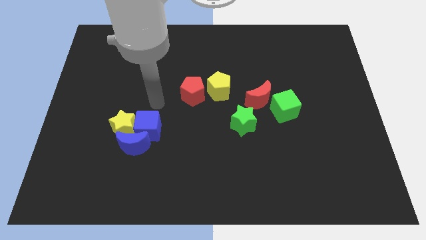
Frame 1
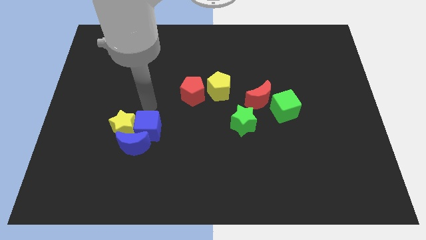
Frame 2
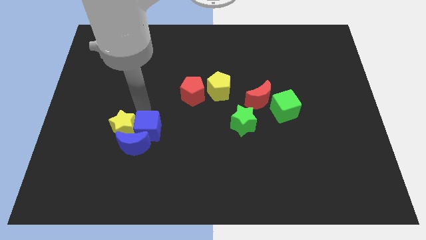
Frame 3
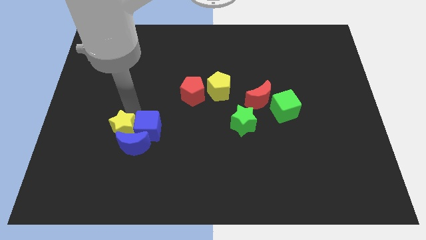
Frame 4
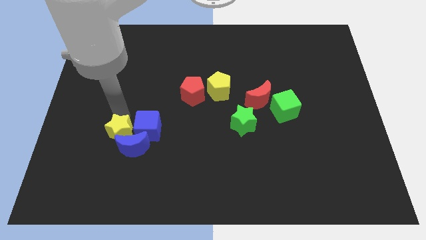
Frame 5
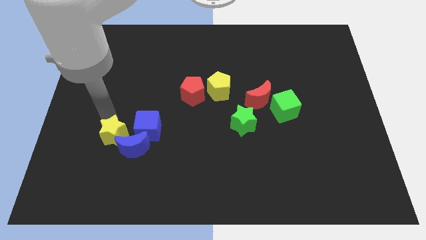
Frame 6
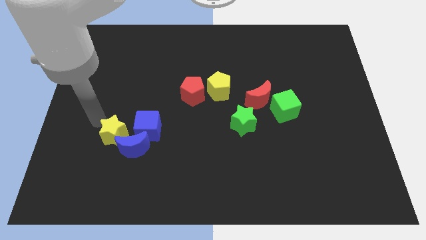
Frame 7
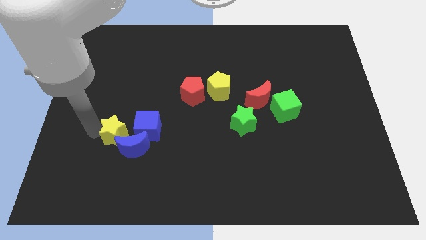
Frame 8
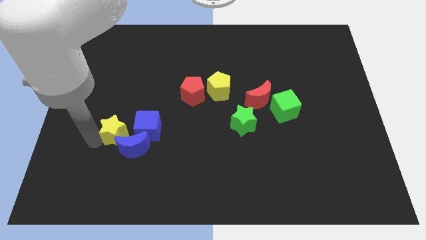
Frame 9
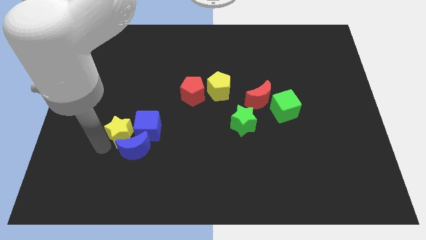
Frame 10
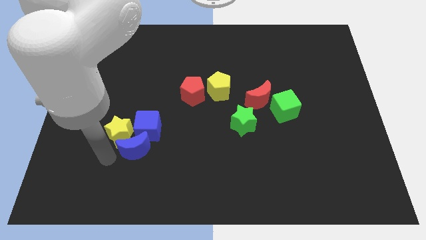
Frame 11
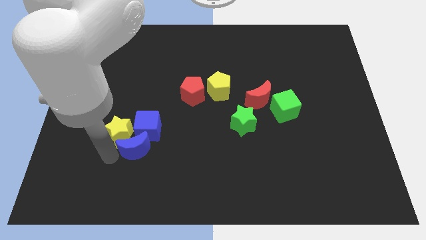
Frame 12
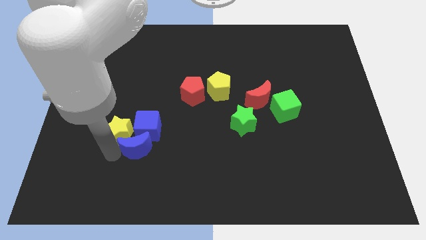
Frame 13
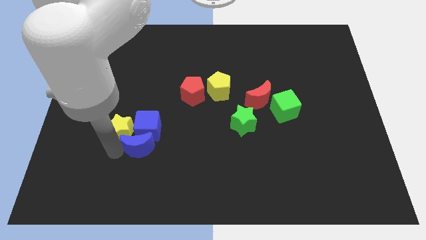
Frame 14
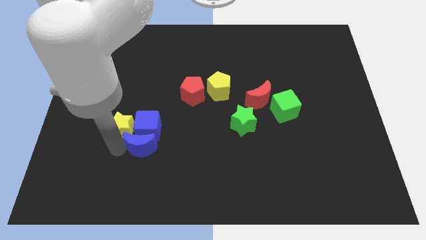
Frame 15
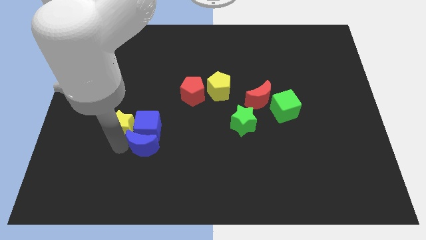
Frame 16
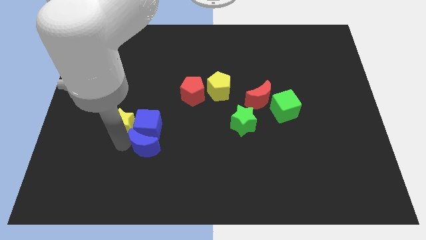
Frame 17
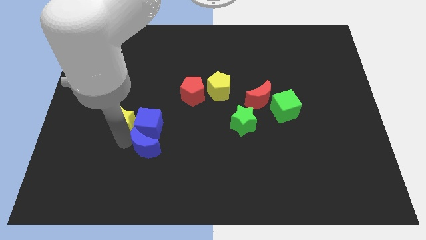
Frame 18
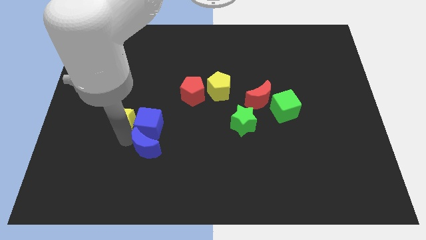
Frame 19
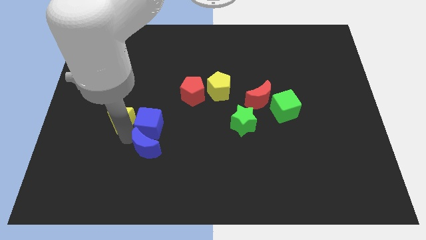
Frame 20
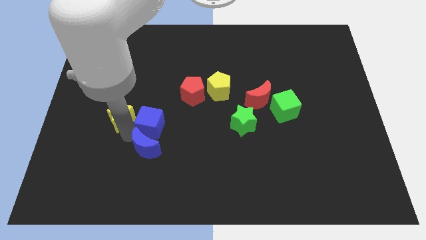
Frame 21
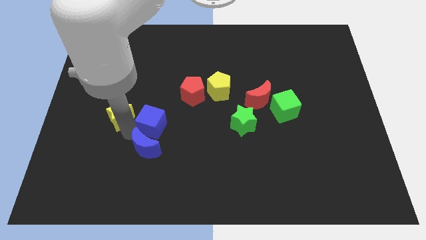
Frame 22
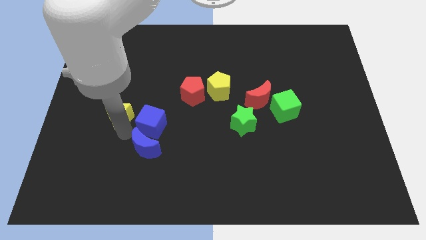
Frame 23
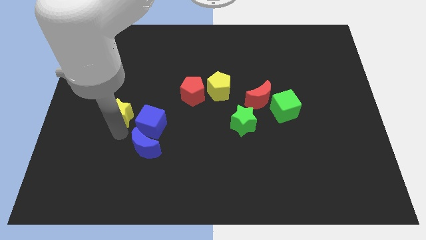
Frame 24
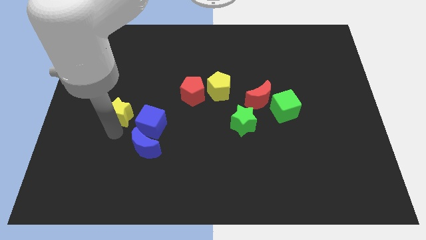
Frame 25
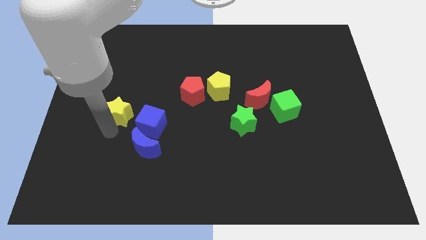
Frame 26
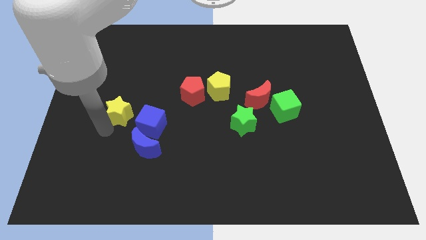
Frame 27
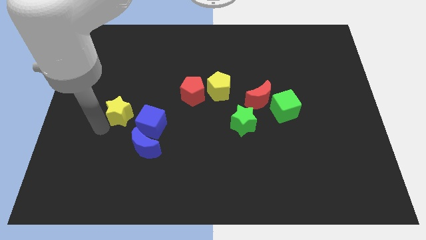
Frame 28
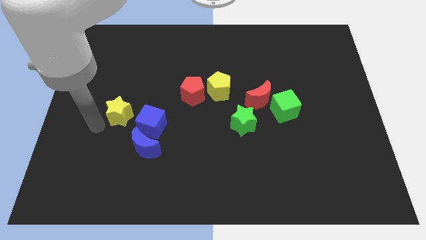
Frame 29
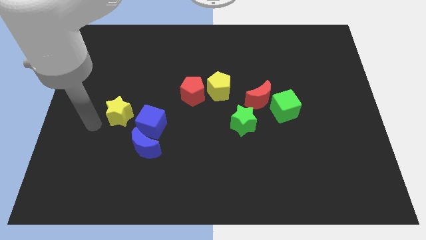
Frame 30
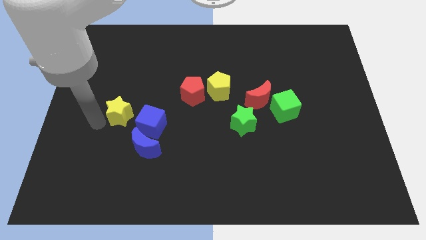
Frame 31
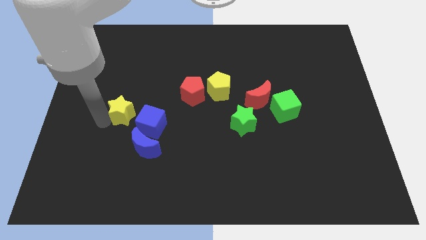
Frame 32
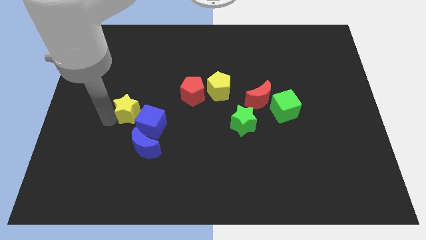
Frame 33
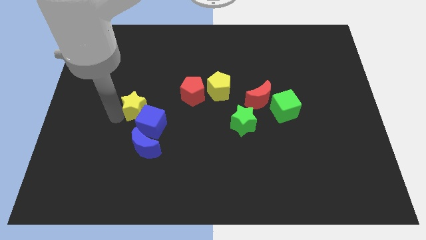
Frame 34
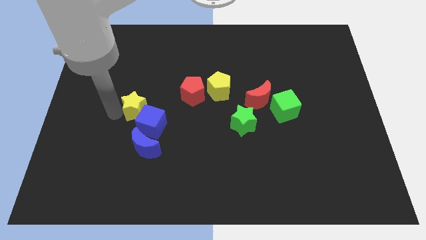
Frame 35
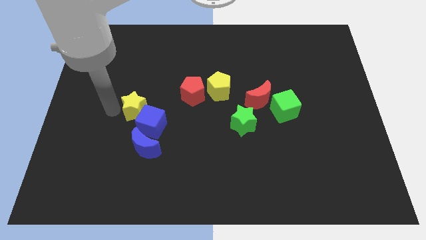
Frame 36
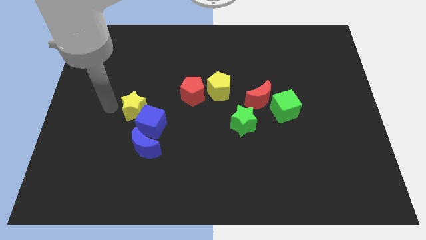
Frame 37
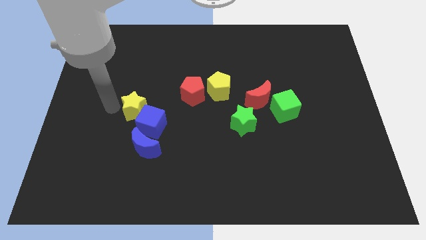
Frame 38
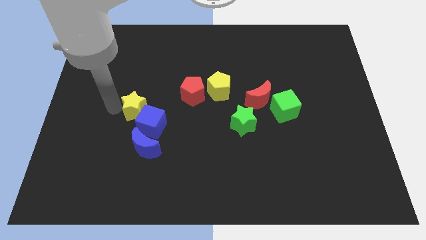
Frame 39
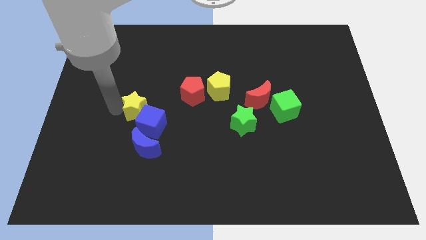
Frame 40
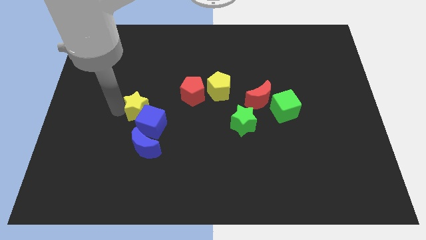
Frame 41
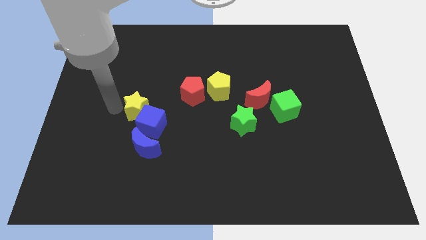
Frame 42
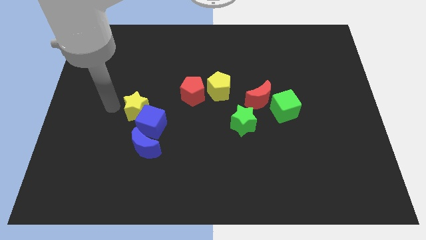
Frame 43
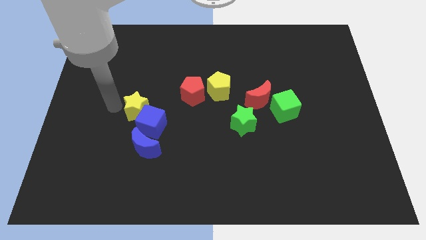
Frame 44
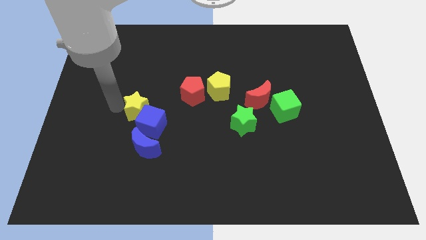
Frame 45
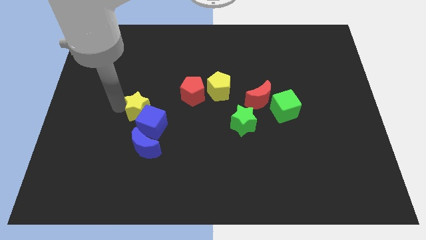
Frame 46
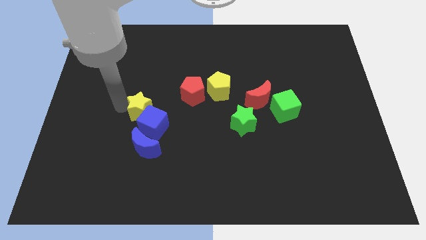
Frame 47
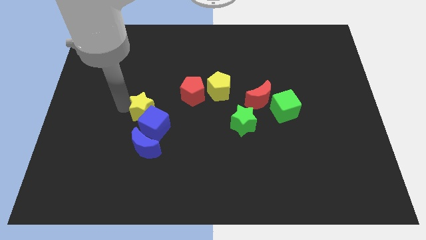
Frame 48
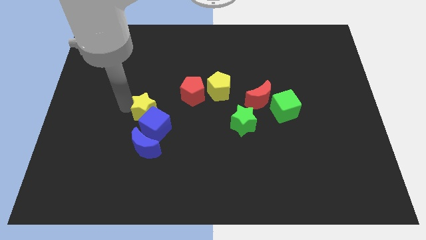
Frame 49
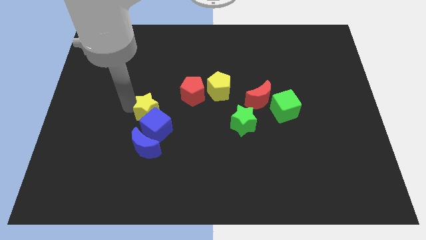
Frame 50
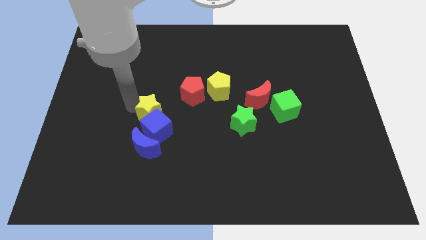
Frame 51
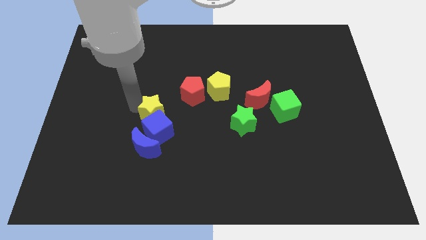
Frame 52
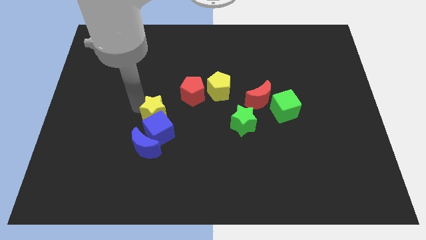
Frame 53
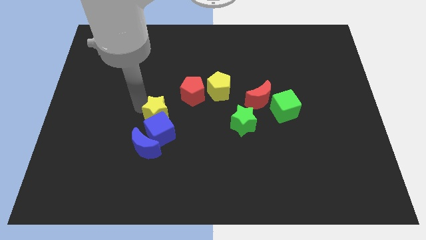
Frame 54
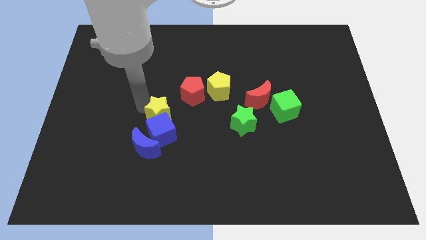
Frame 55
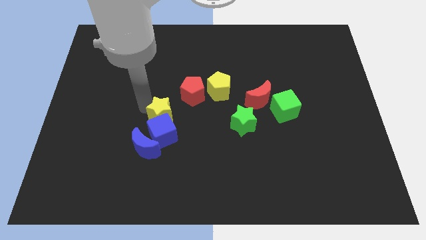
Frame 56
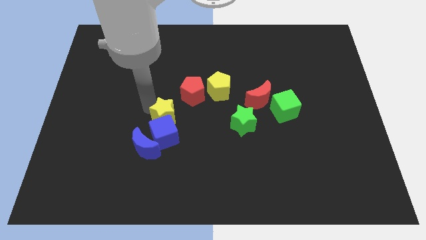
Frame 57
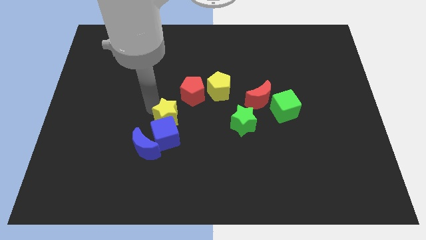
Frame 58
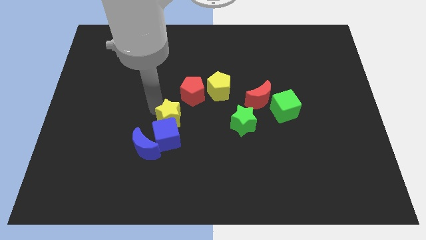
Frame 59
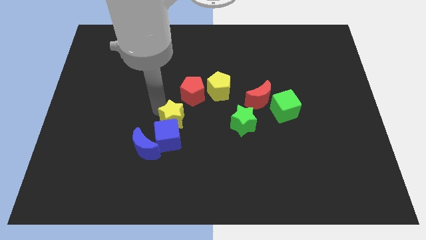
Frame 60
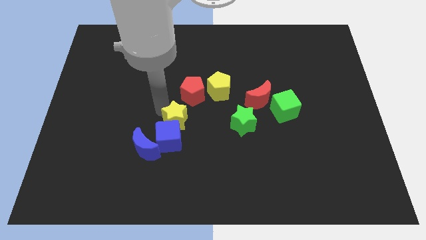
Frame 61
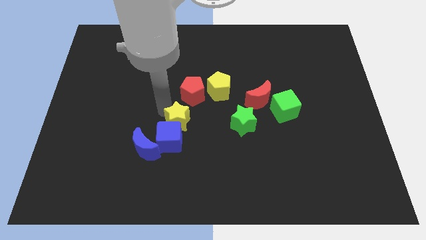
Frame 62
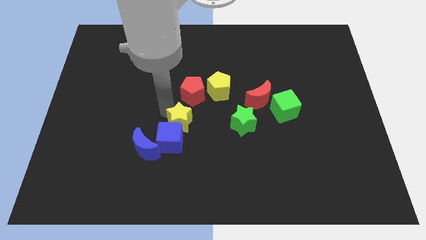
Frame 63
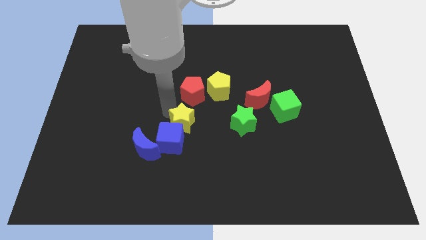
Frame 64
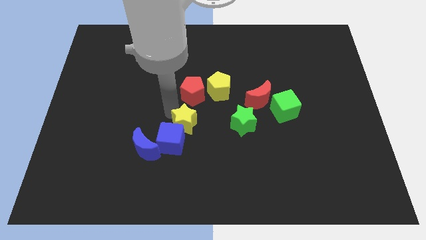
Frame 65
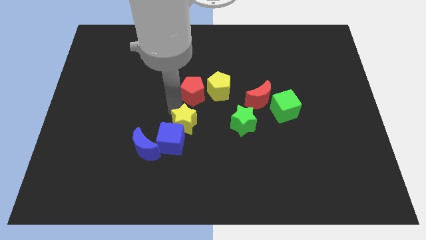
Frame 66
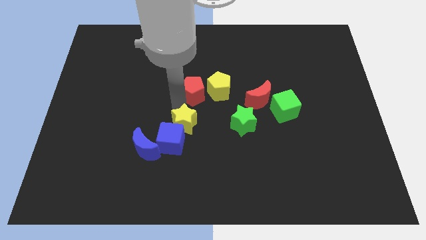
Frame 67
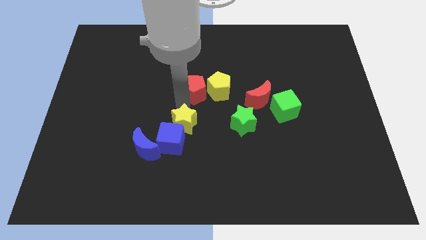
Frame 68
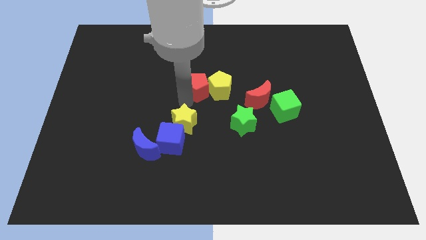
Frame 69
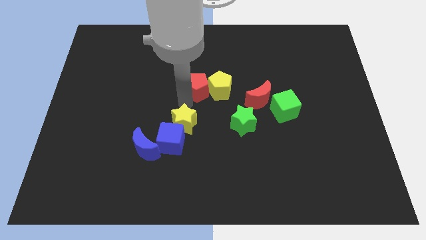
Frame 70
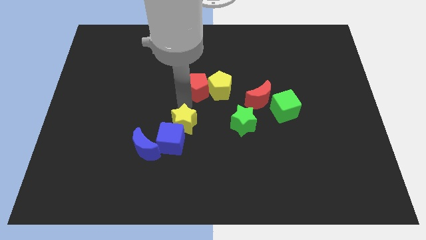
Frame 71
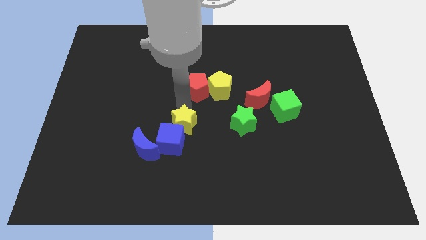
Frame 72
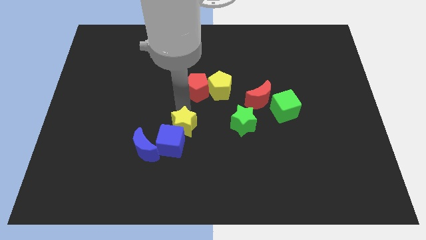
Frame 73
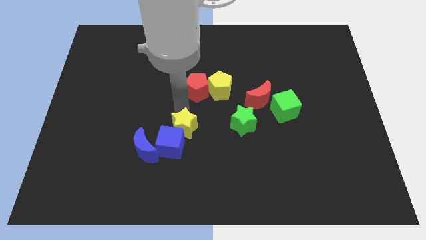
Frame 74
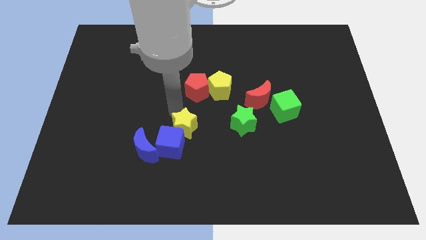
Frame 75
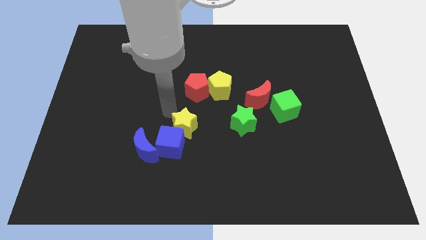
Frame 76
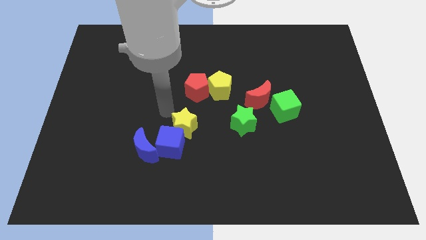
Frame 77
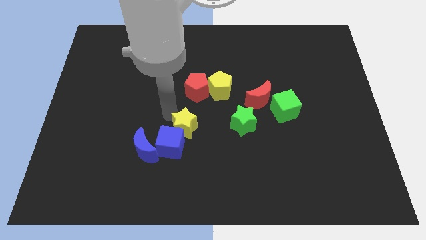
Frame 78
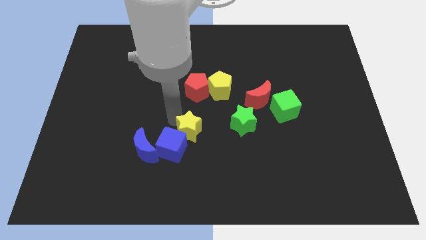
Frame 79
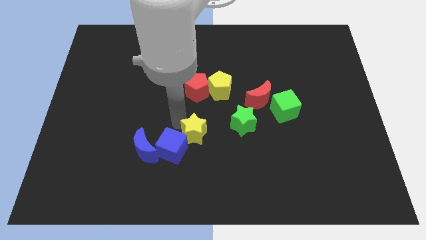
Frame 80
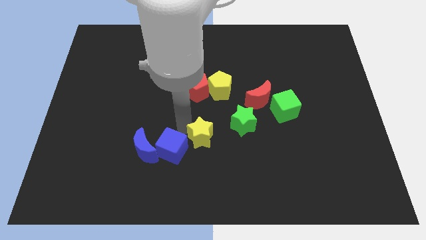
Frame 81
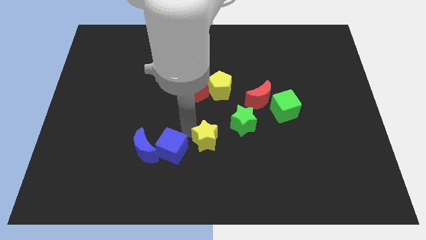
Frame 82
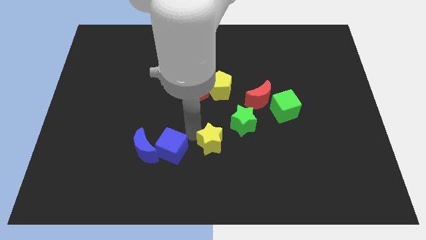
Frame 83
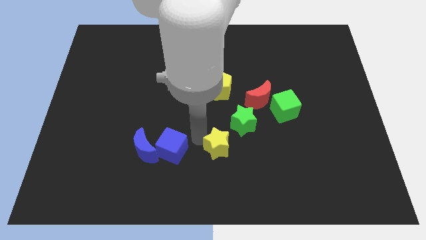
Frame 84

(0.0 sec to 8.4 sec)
push the yellow star to the right
